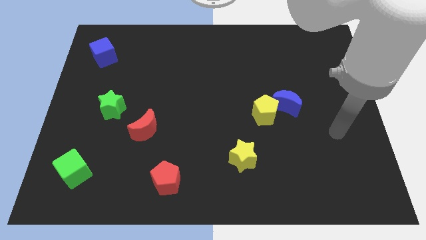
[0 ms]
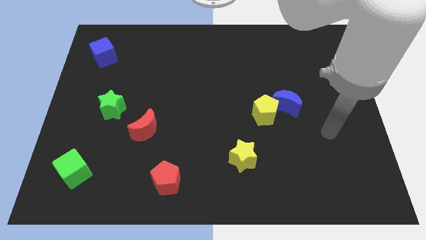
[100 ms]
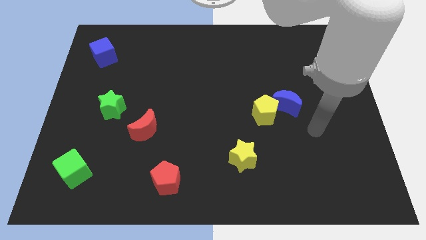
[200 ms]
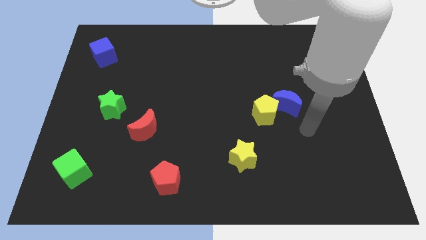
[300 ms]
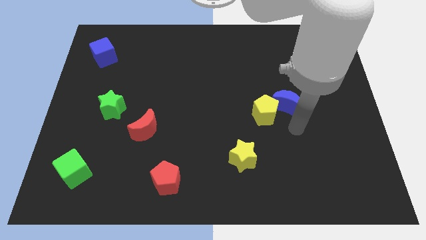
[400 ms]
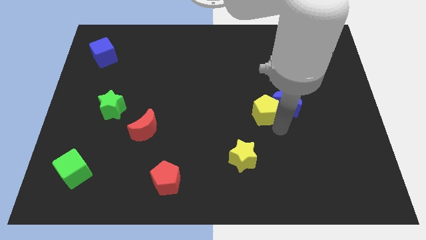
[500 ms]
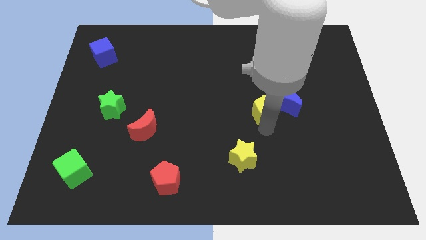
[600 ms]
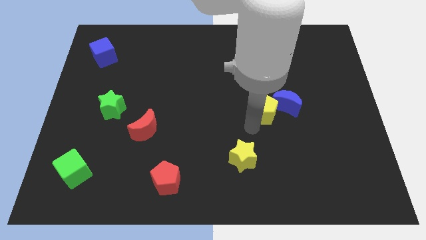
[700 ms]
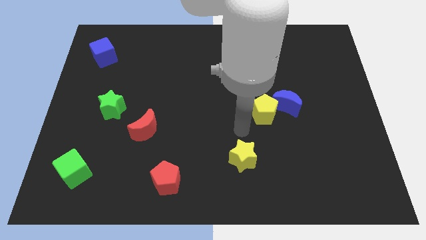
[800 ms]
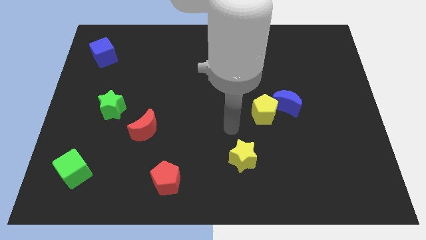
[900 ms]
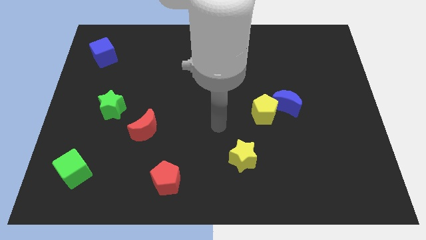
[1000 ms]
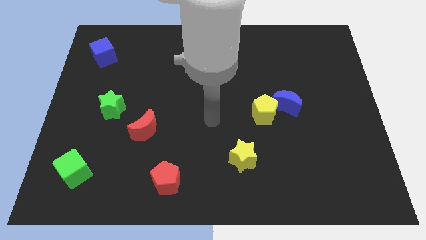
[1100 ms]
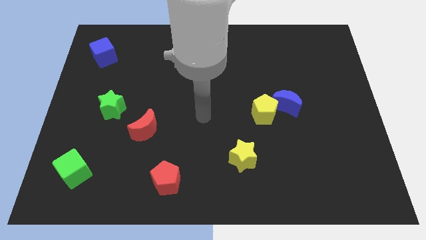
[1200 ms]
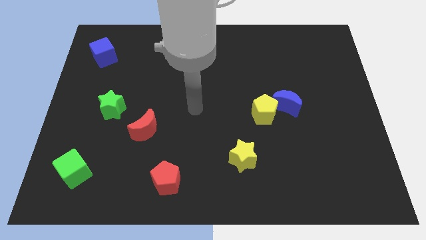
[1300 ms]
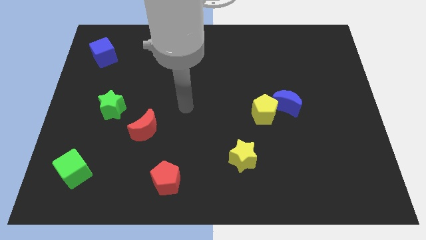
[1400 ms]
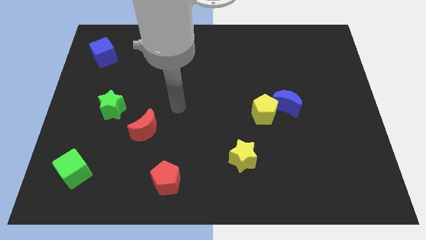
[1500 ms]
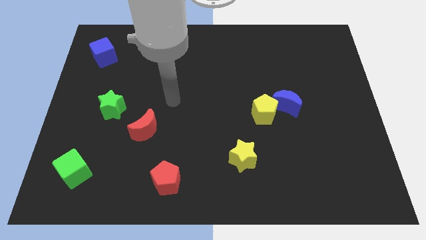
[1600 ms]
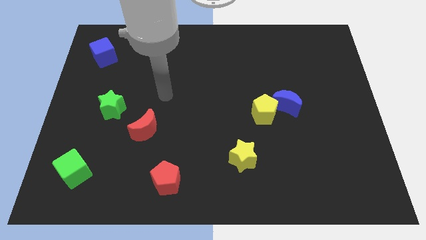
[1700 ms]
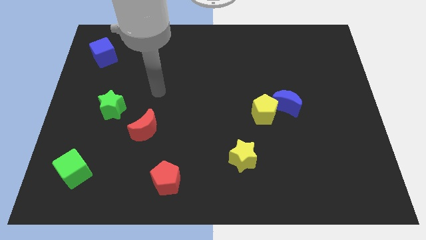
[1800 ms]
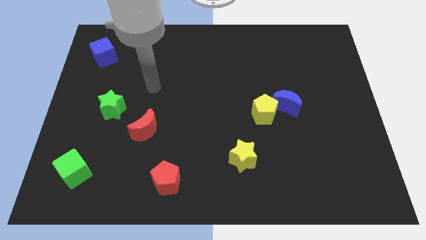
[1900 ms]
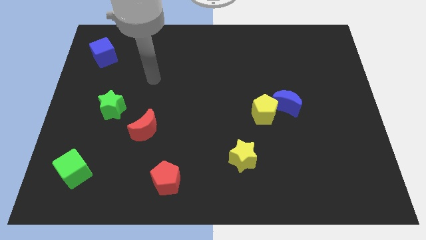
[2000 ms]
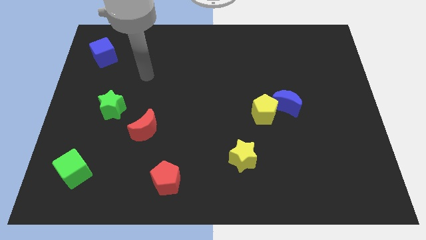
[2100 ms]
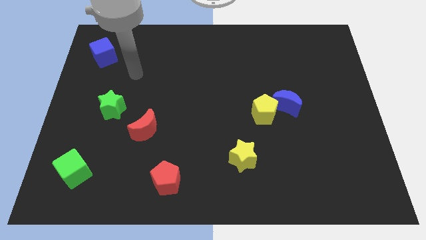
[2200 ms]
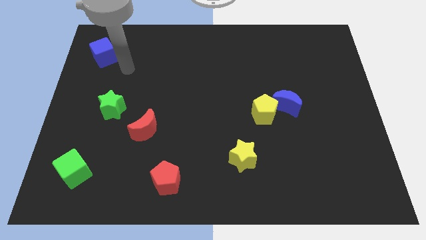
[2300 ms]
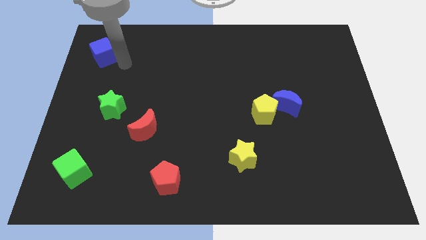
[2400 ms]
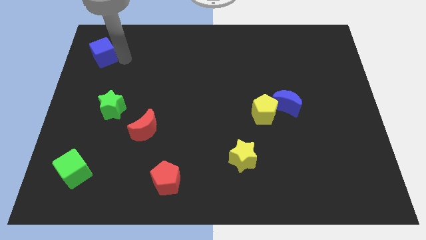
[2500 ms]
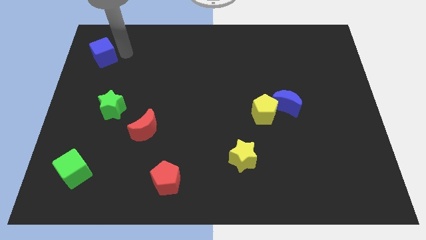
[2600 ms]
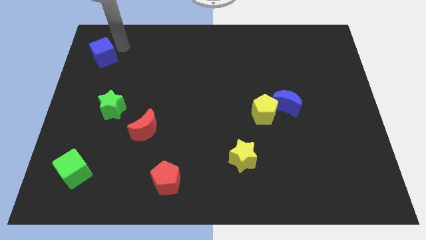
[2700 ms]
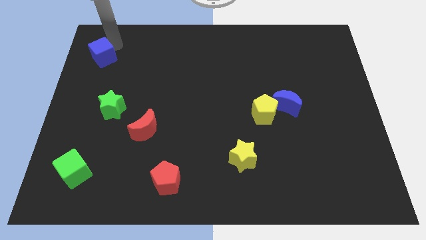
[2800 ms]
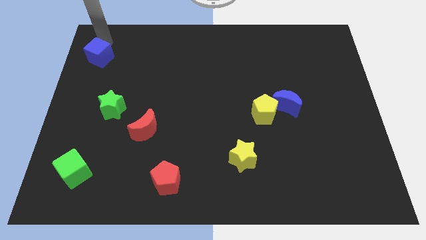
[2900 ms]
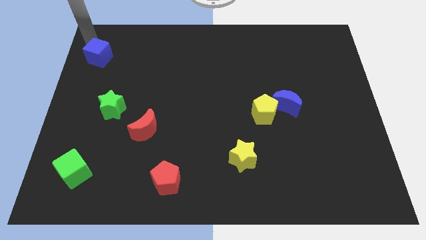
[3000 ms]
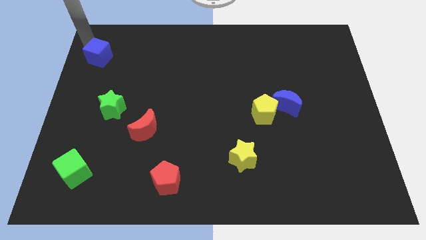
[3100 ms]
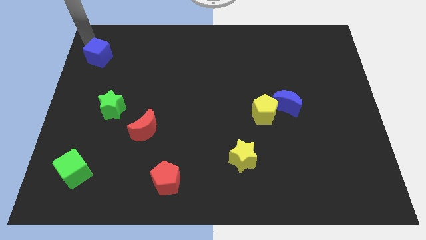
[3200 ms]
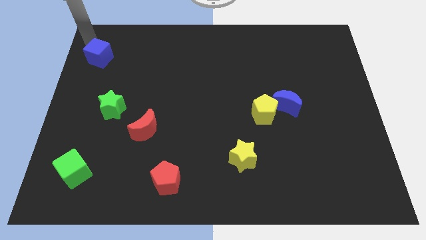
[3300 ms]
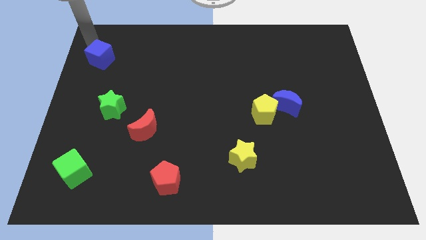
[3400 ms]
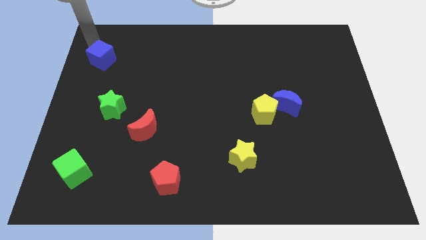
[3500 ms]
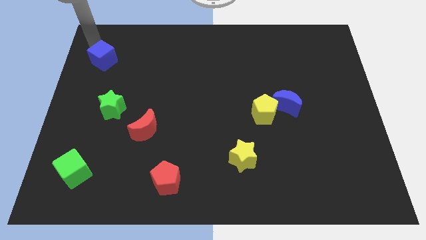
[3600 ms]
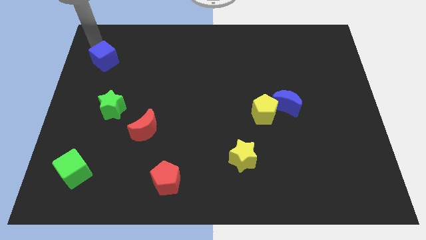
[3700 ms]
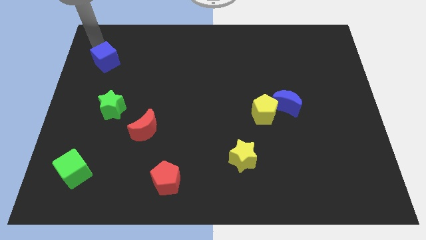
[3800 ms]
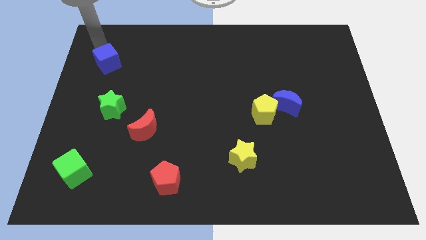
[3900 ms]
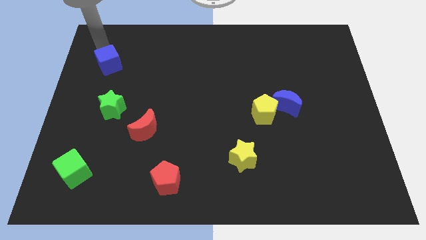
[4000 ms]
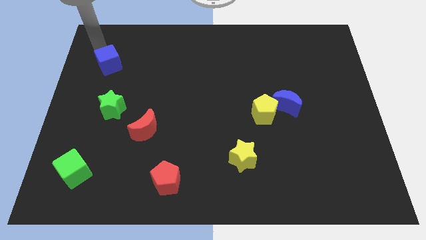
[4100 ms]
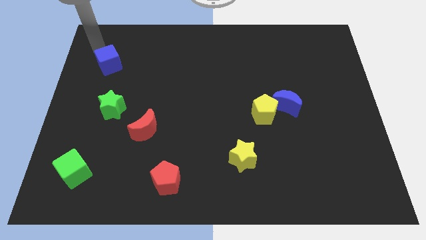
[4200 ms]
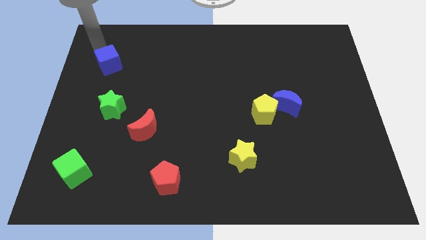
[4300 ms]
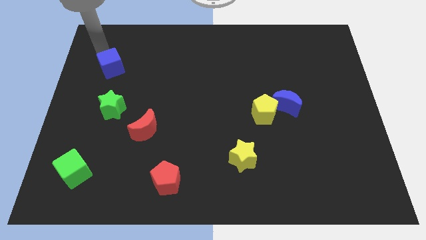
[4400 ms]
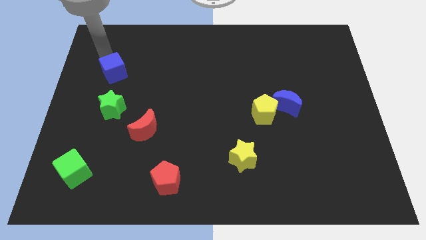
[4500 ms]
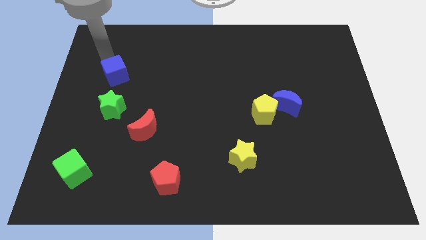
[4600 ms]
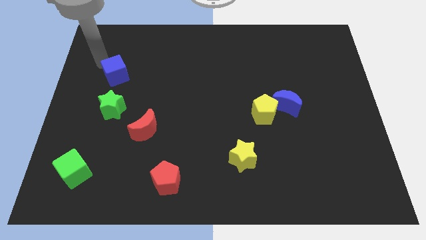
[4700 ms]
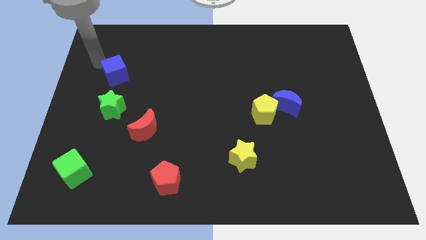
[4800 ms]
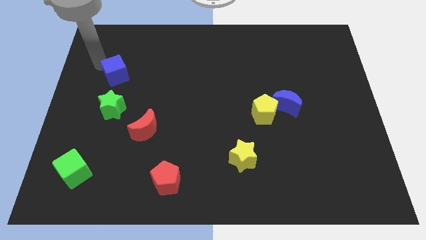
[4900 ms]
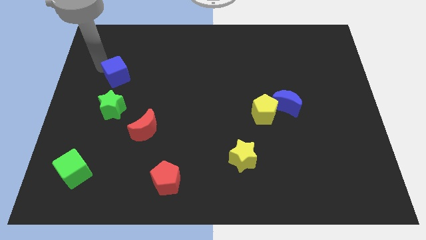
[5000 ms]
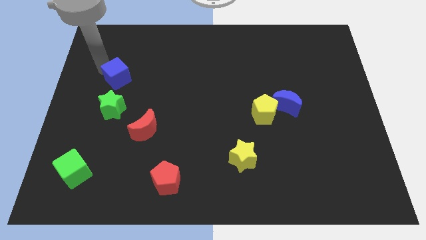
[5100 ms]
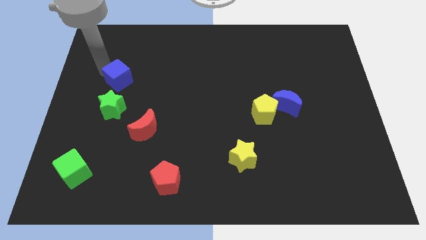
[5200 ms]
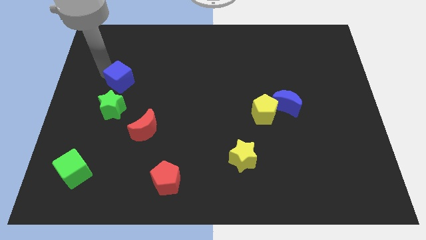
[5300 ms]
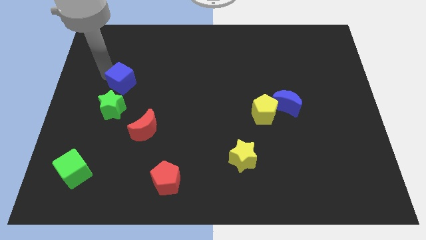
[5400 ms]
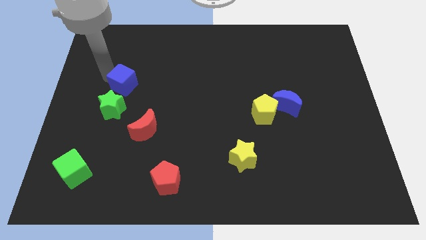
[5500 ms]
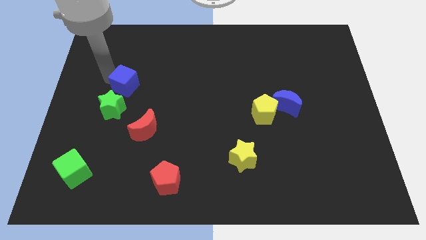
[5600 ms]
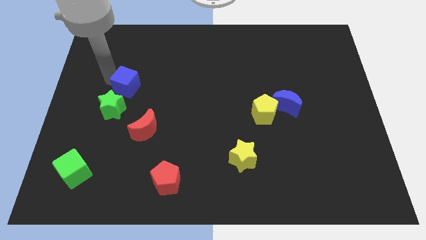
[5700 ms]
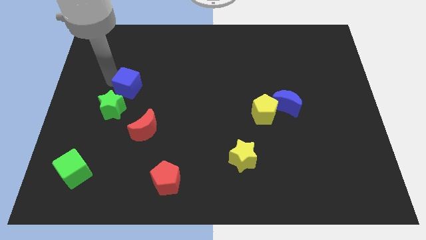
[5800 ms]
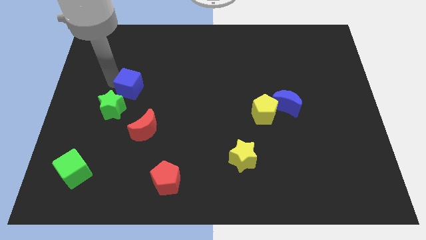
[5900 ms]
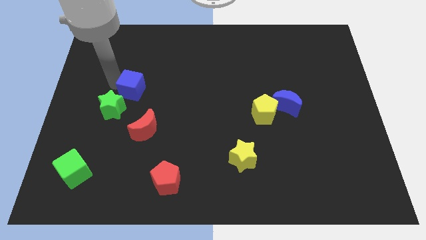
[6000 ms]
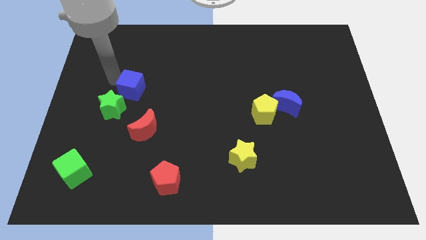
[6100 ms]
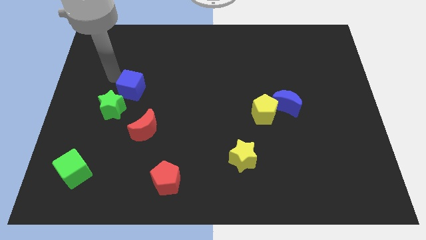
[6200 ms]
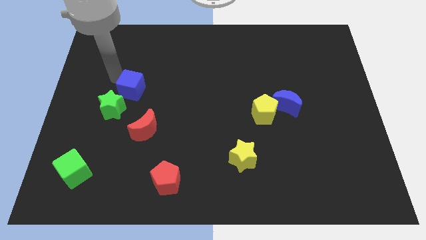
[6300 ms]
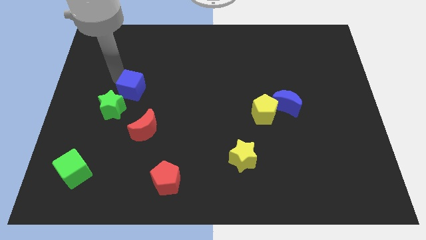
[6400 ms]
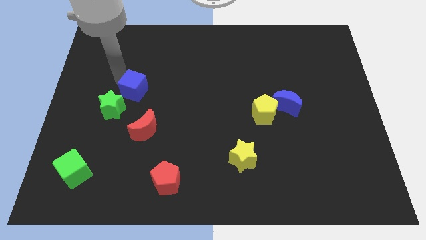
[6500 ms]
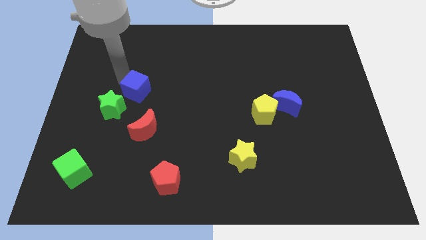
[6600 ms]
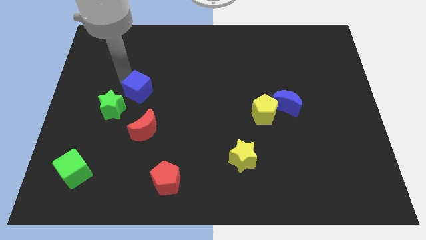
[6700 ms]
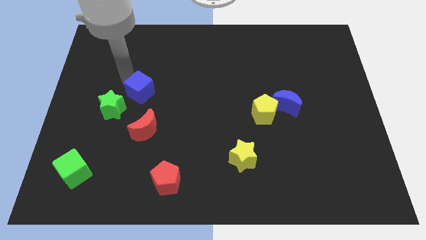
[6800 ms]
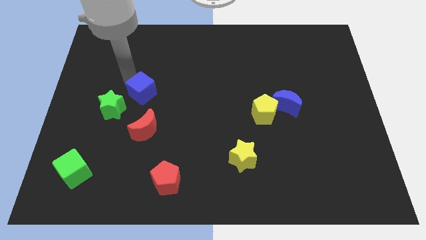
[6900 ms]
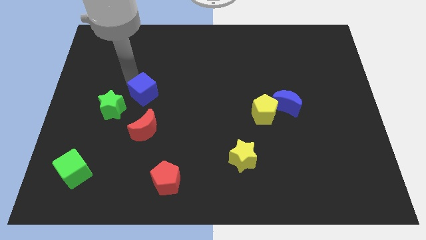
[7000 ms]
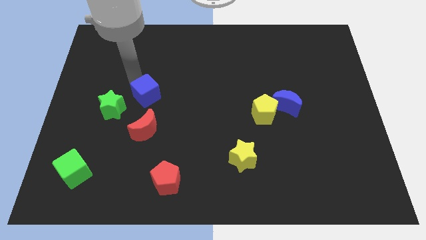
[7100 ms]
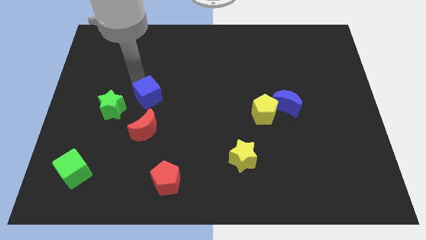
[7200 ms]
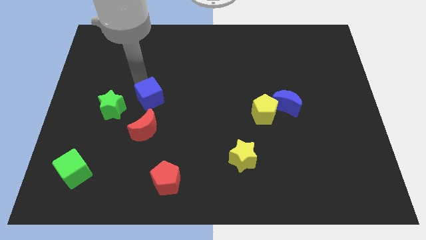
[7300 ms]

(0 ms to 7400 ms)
move the blue cube downwards and to the right

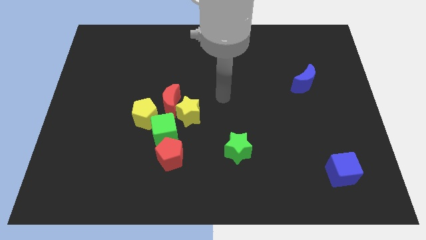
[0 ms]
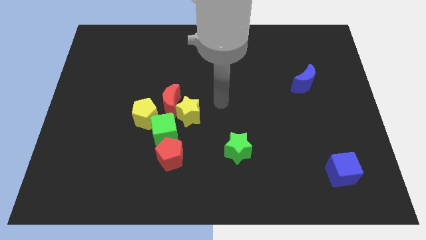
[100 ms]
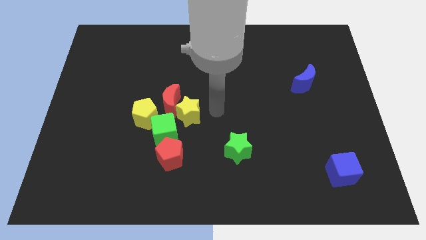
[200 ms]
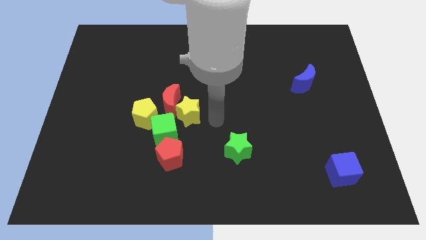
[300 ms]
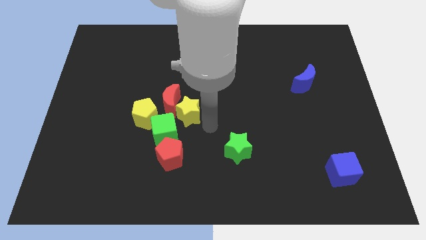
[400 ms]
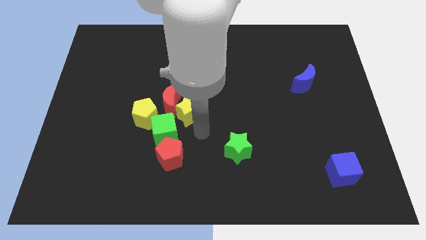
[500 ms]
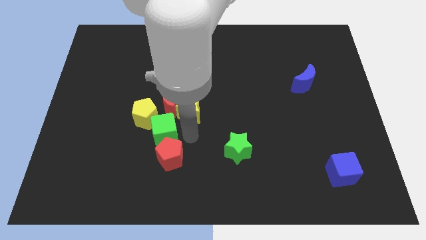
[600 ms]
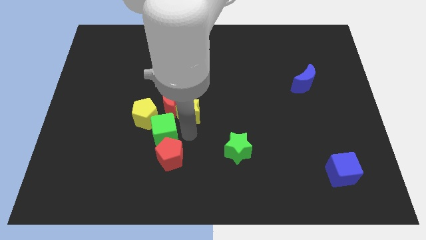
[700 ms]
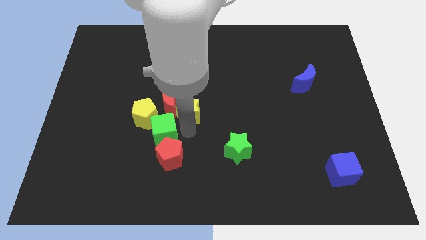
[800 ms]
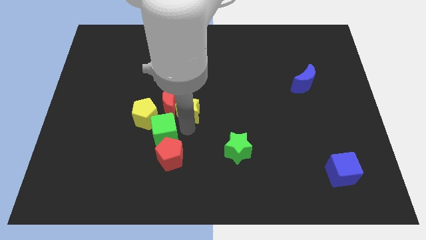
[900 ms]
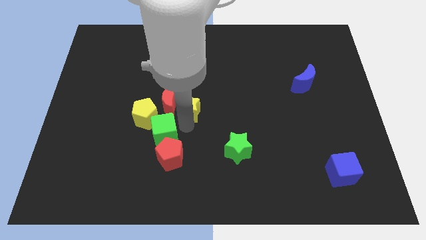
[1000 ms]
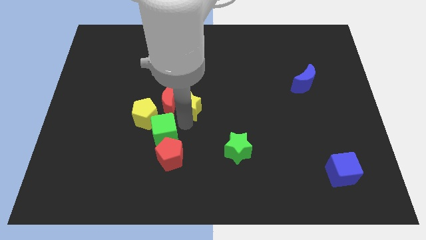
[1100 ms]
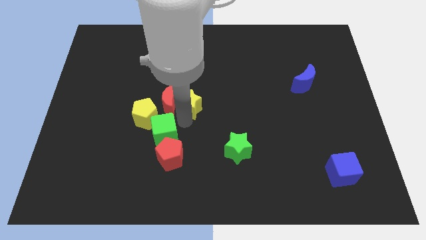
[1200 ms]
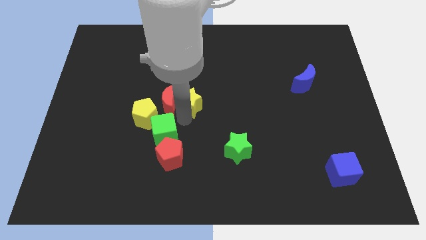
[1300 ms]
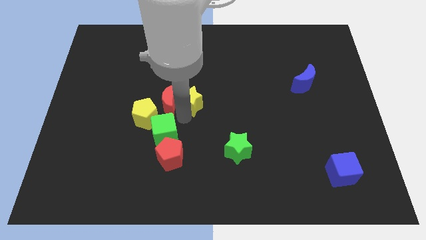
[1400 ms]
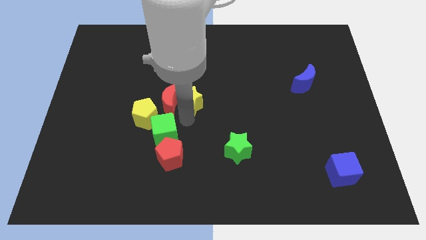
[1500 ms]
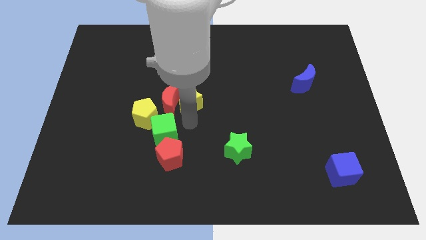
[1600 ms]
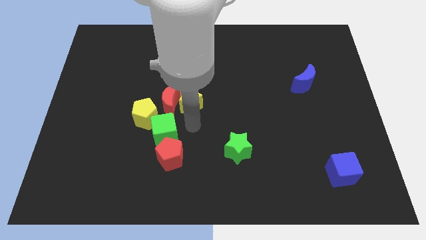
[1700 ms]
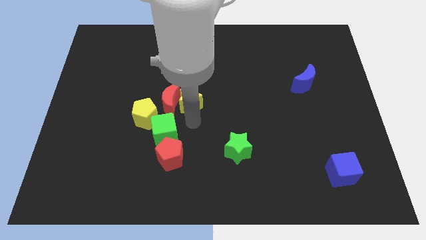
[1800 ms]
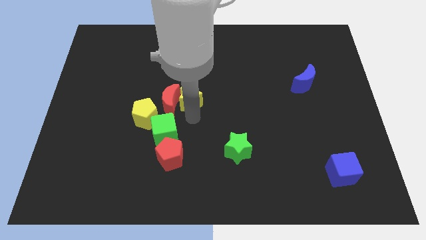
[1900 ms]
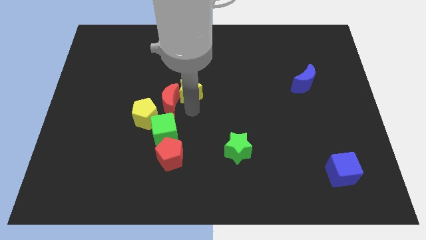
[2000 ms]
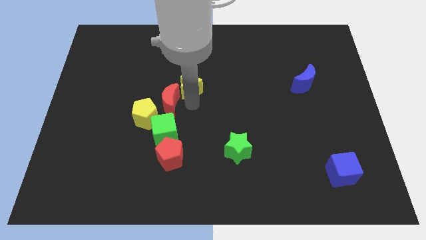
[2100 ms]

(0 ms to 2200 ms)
move the yellow star upwards a little bit
